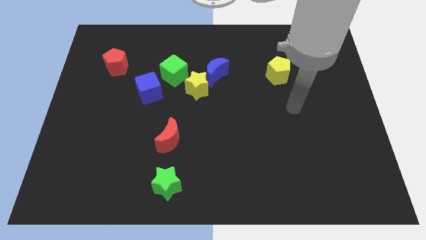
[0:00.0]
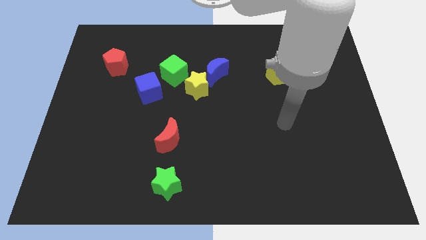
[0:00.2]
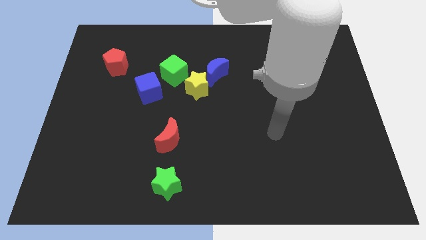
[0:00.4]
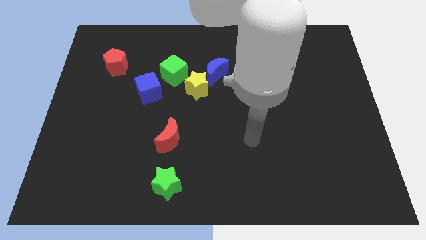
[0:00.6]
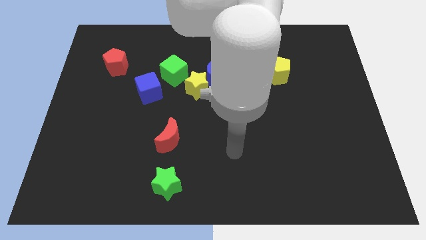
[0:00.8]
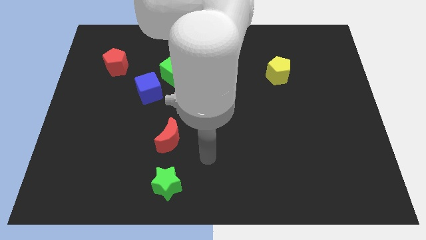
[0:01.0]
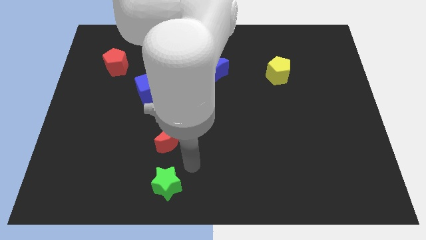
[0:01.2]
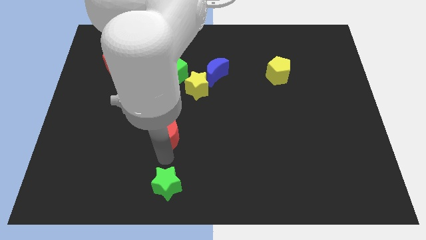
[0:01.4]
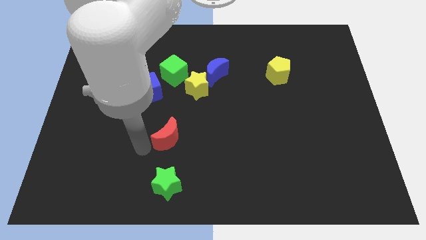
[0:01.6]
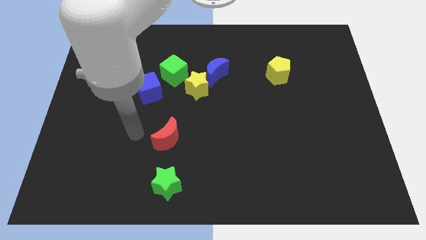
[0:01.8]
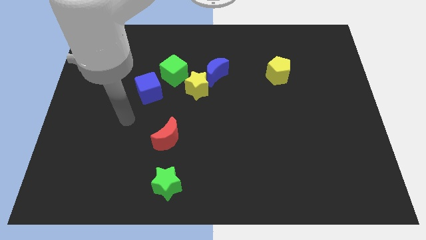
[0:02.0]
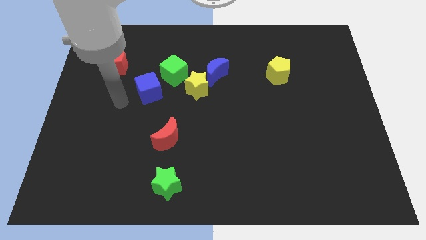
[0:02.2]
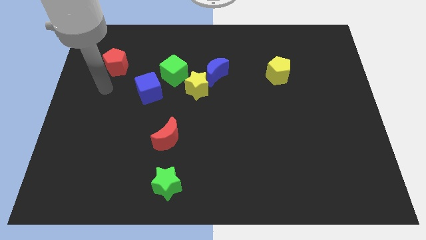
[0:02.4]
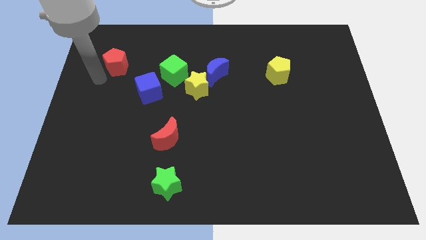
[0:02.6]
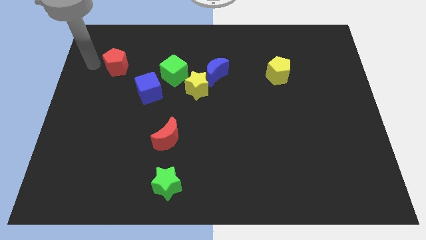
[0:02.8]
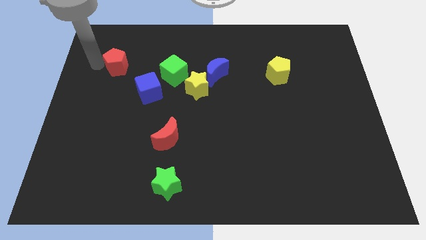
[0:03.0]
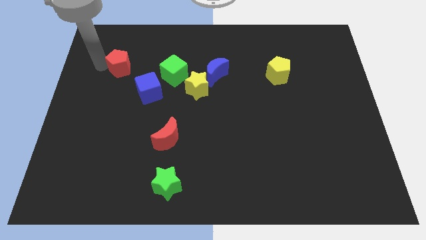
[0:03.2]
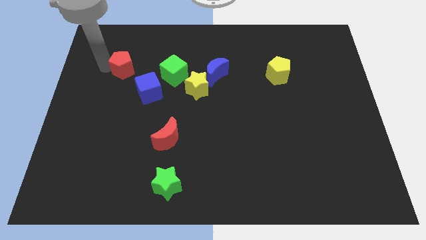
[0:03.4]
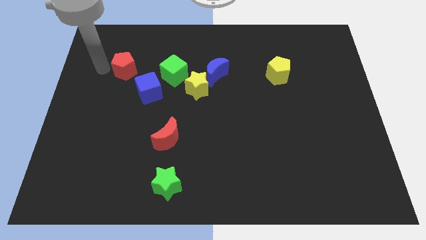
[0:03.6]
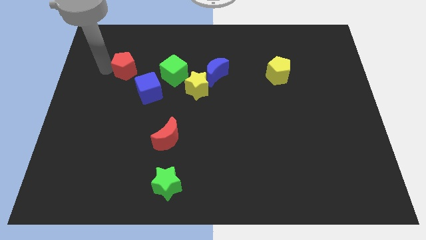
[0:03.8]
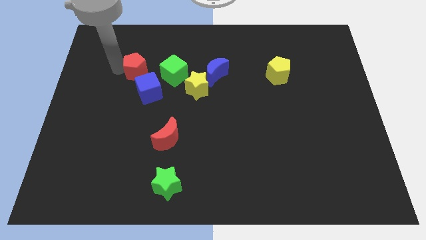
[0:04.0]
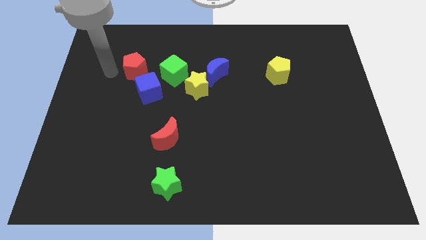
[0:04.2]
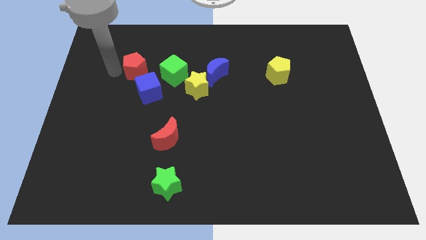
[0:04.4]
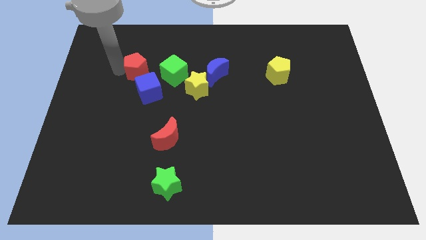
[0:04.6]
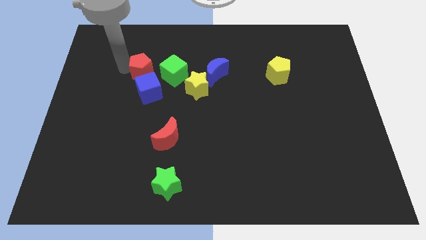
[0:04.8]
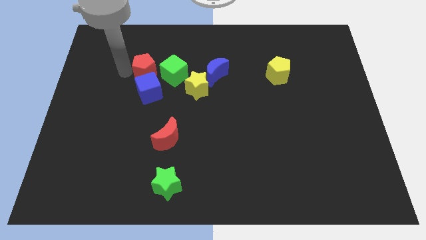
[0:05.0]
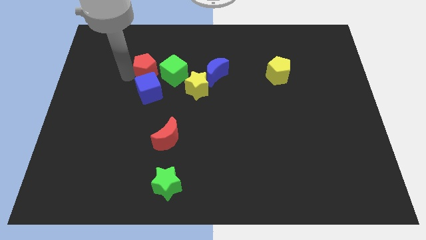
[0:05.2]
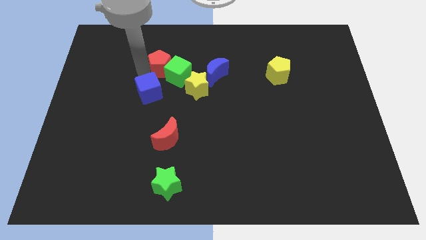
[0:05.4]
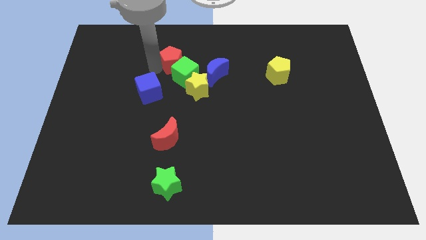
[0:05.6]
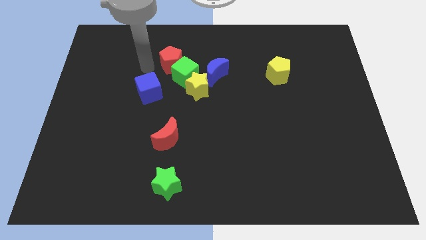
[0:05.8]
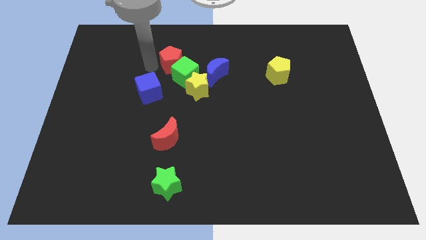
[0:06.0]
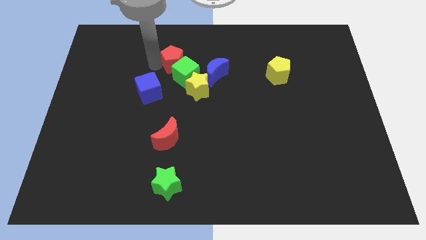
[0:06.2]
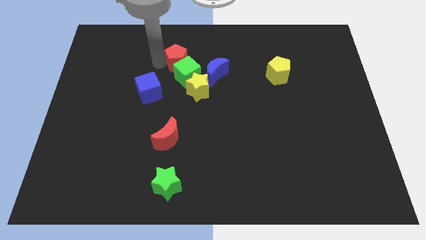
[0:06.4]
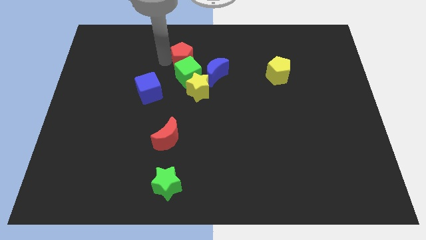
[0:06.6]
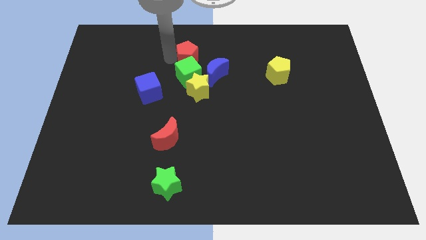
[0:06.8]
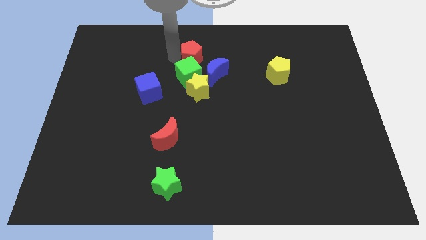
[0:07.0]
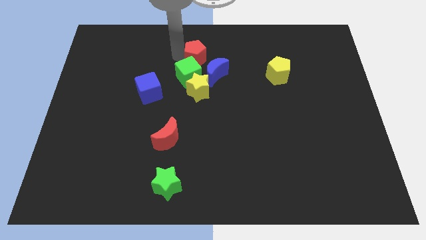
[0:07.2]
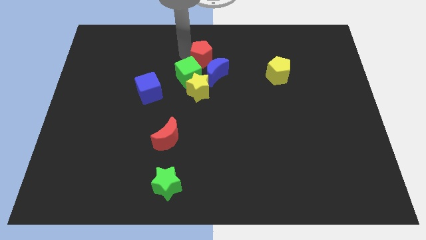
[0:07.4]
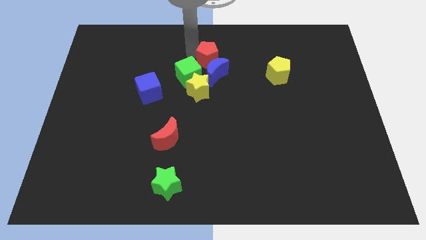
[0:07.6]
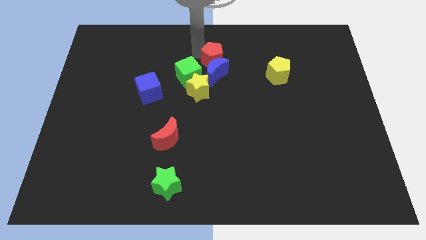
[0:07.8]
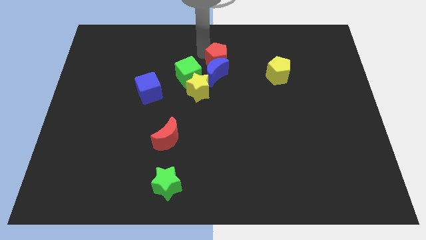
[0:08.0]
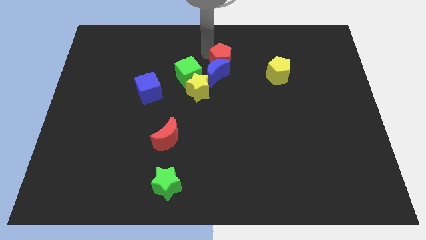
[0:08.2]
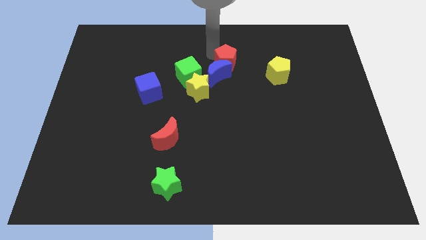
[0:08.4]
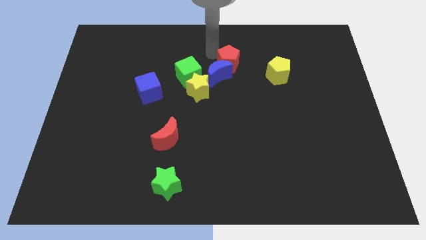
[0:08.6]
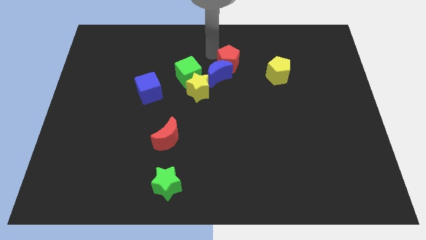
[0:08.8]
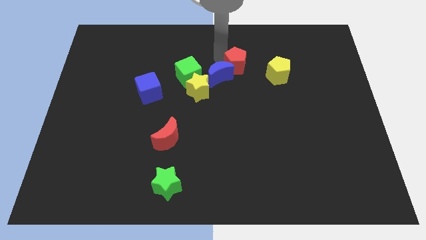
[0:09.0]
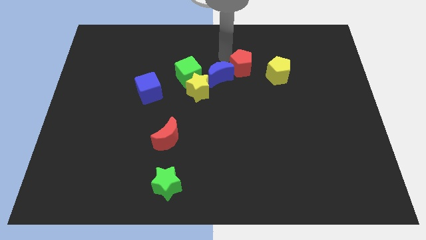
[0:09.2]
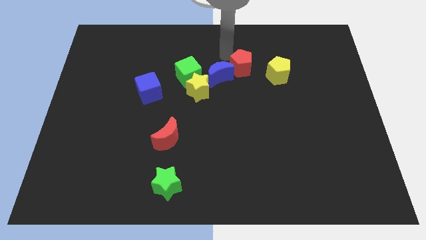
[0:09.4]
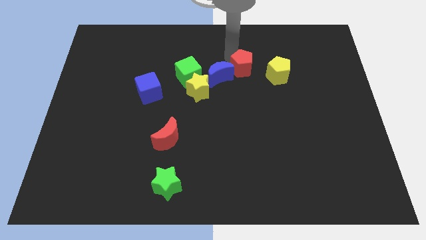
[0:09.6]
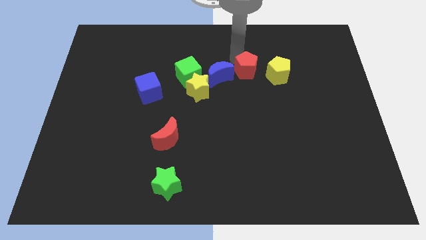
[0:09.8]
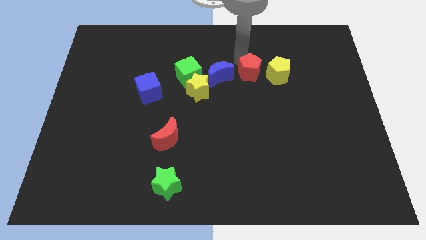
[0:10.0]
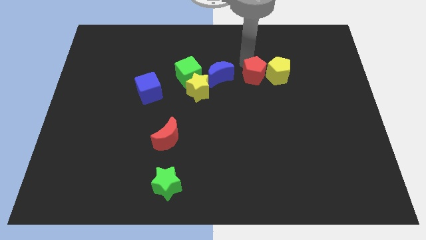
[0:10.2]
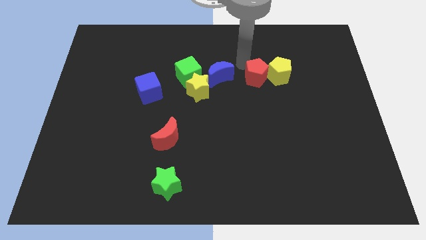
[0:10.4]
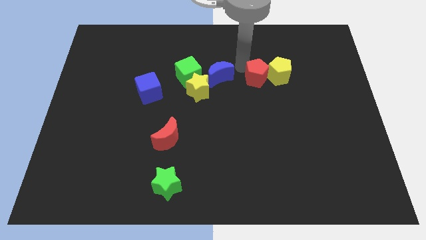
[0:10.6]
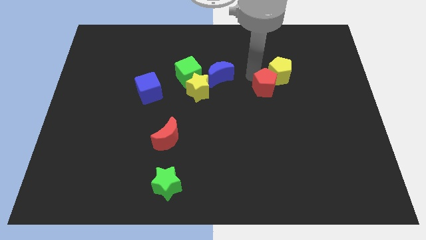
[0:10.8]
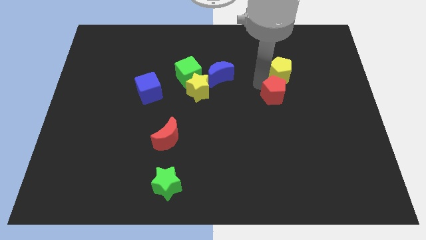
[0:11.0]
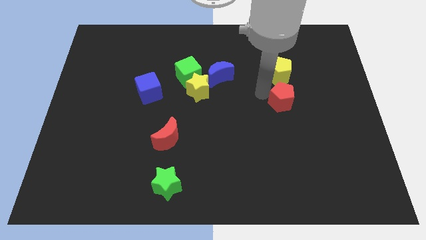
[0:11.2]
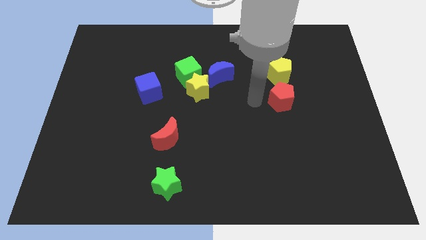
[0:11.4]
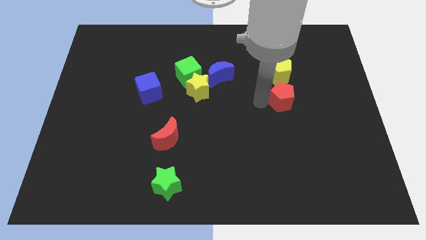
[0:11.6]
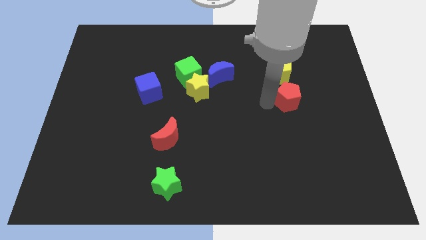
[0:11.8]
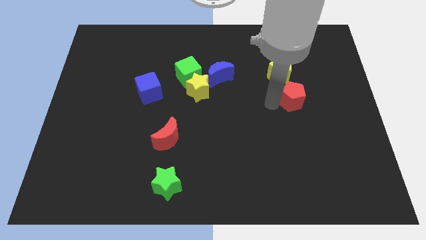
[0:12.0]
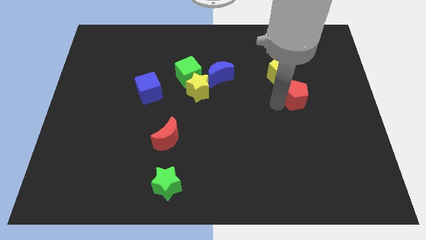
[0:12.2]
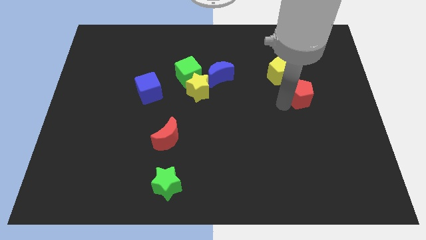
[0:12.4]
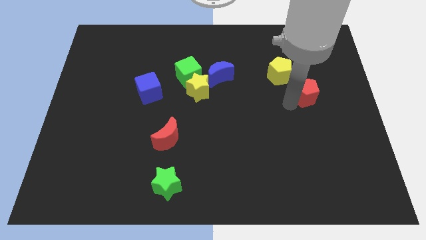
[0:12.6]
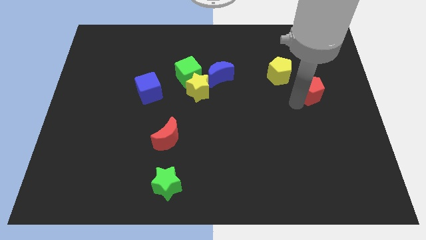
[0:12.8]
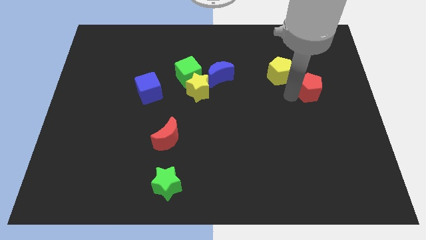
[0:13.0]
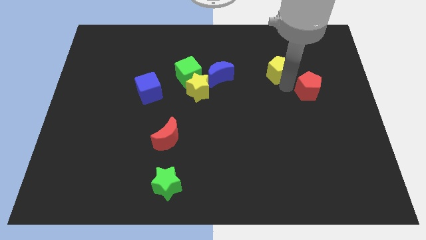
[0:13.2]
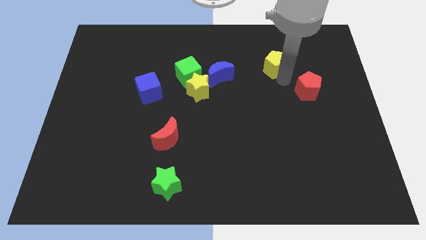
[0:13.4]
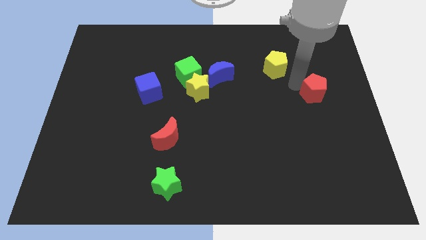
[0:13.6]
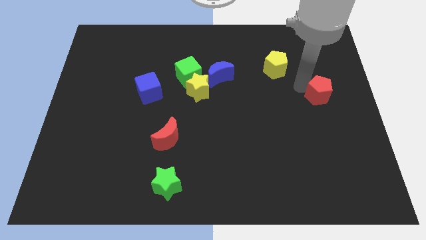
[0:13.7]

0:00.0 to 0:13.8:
move the red pentagon to the right side of the board

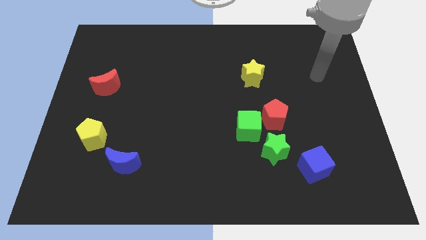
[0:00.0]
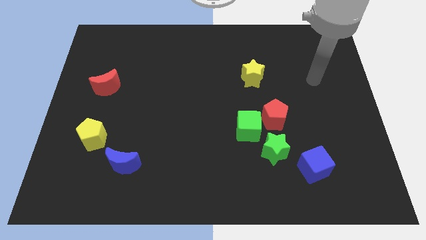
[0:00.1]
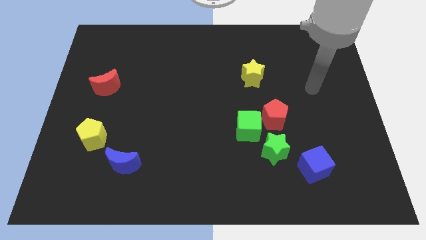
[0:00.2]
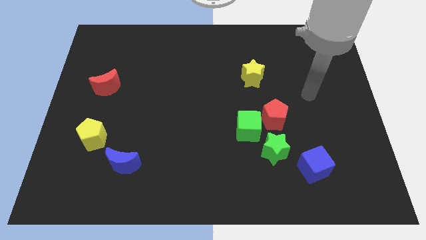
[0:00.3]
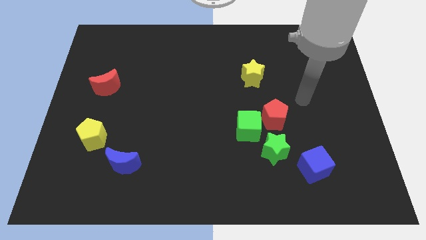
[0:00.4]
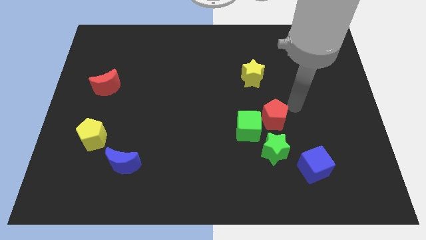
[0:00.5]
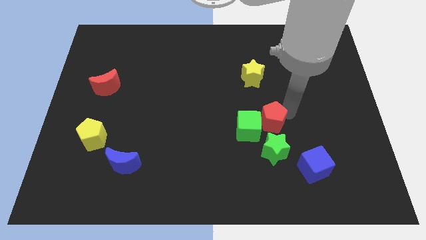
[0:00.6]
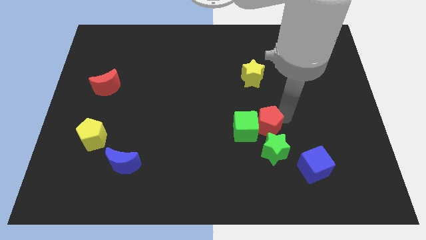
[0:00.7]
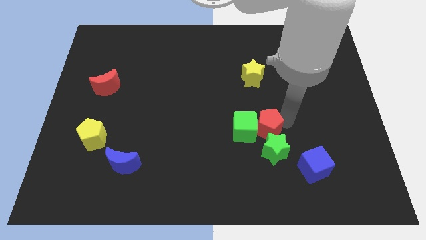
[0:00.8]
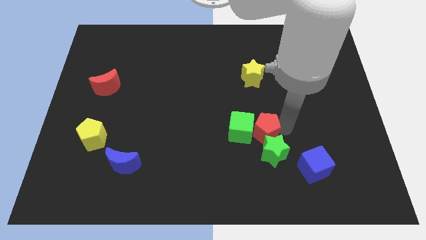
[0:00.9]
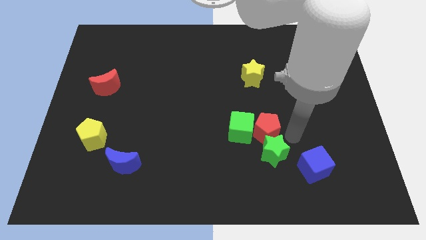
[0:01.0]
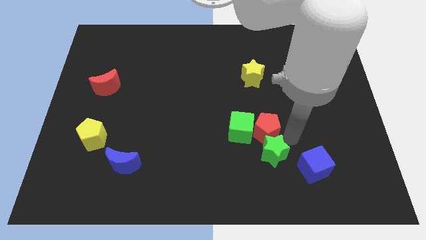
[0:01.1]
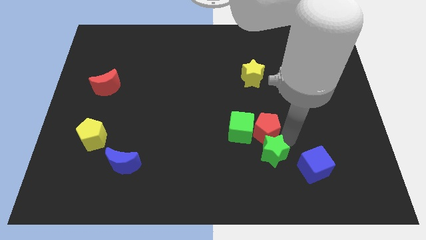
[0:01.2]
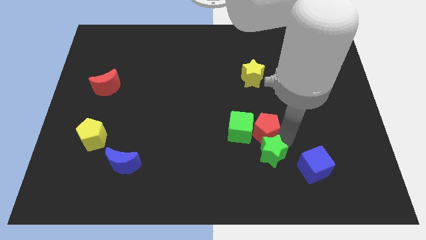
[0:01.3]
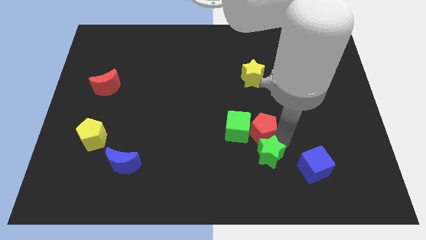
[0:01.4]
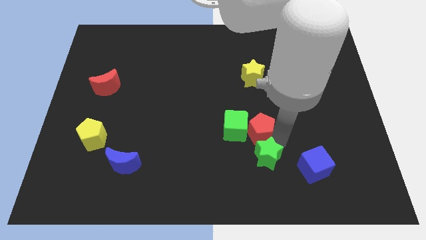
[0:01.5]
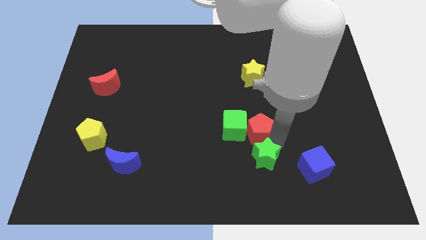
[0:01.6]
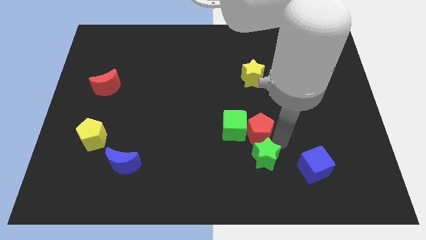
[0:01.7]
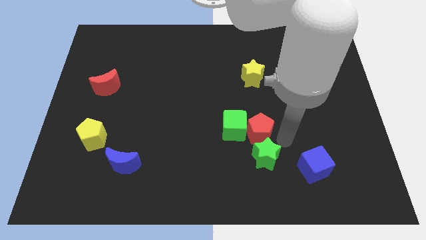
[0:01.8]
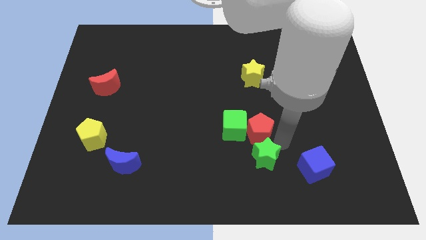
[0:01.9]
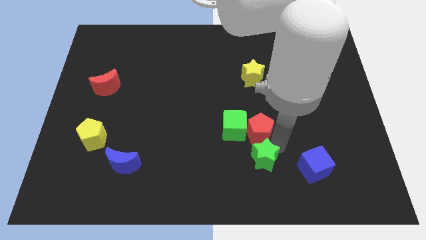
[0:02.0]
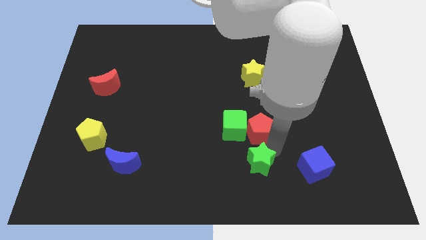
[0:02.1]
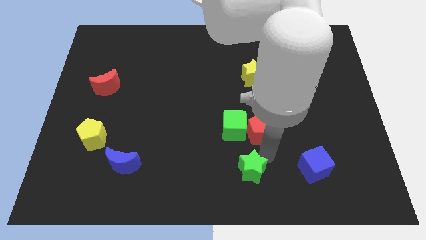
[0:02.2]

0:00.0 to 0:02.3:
move the green star to the bottom side
